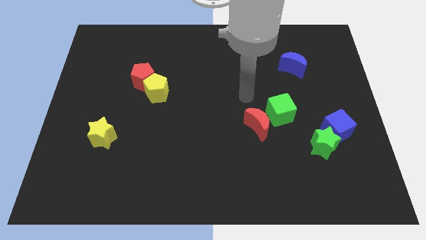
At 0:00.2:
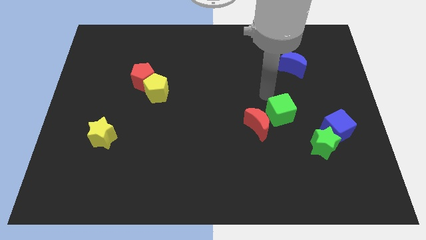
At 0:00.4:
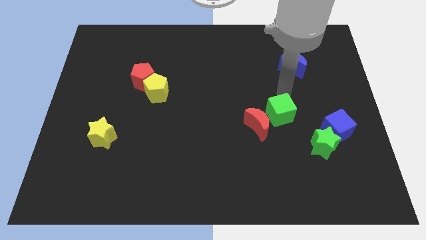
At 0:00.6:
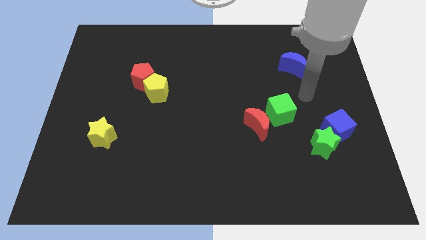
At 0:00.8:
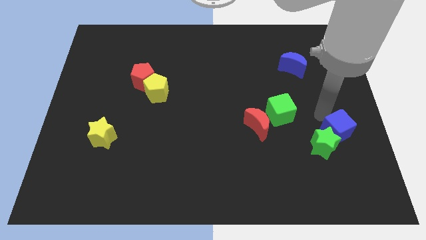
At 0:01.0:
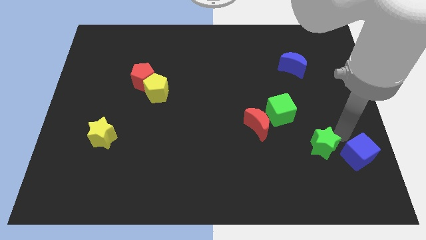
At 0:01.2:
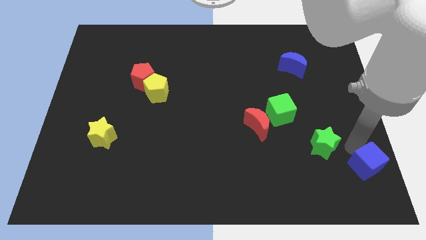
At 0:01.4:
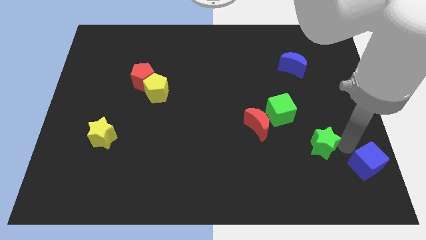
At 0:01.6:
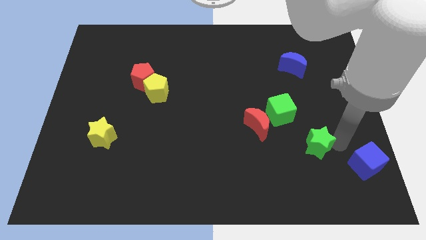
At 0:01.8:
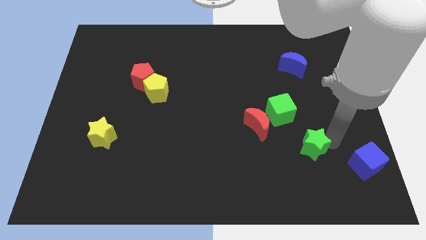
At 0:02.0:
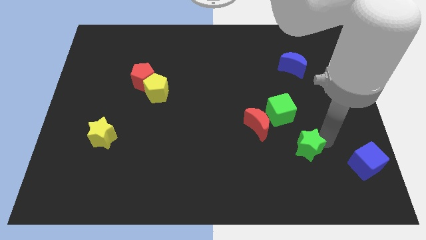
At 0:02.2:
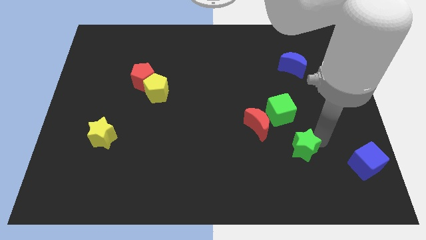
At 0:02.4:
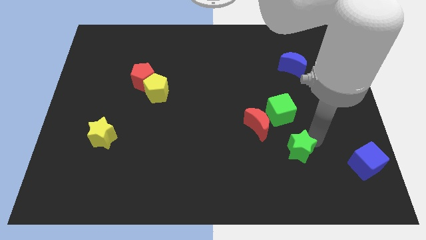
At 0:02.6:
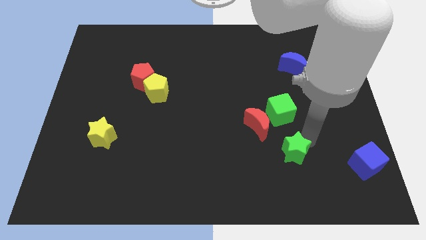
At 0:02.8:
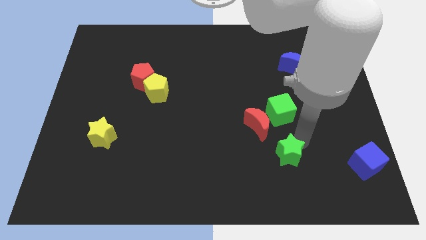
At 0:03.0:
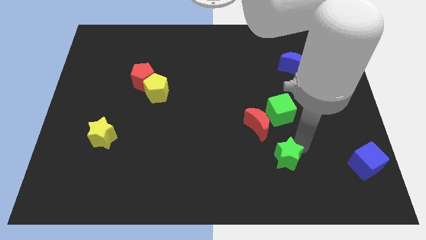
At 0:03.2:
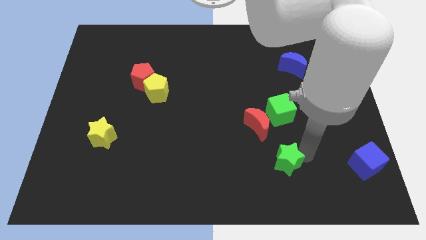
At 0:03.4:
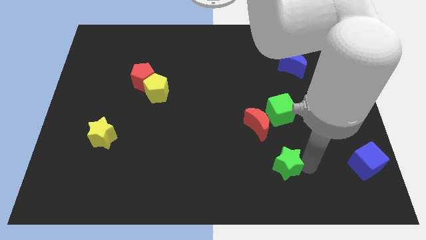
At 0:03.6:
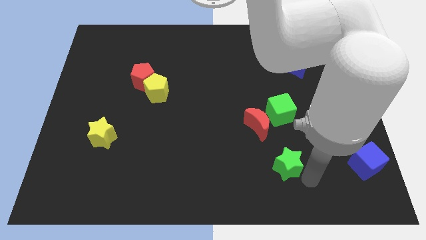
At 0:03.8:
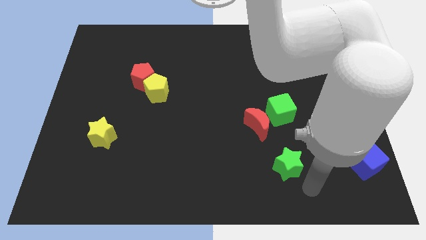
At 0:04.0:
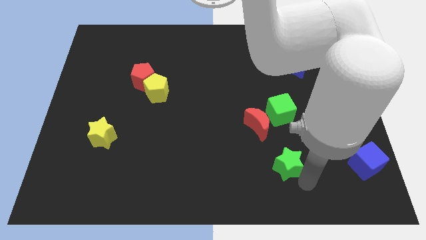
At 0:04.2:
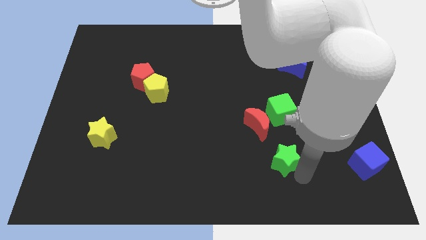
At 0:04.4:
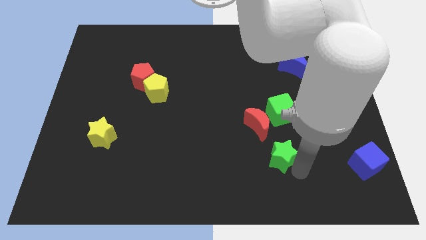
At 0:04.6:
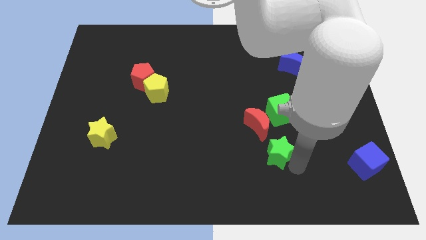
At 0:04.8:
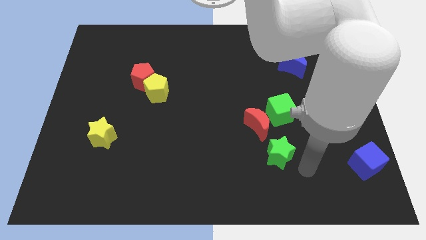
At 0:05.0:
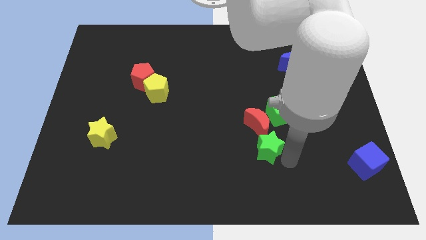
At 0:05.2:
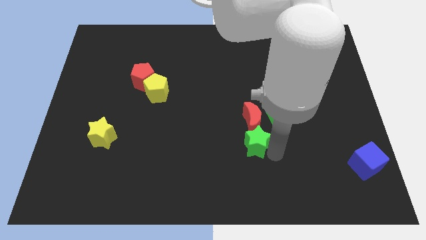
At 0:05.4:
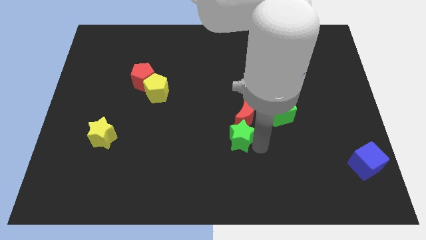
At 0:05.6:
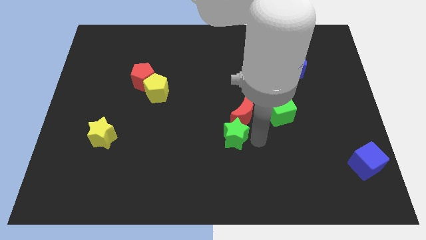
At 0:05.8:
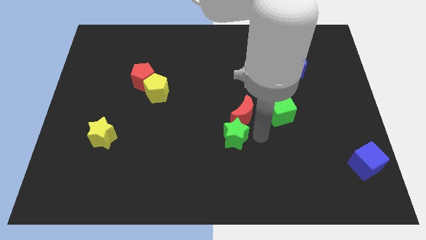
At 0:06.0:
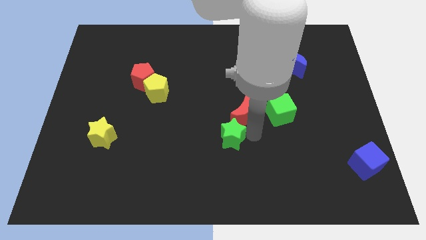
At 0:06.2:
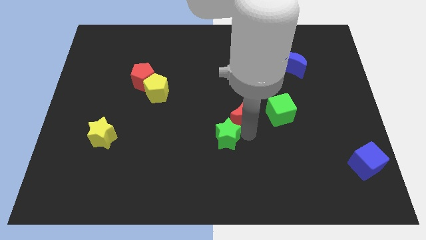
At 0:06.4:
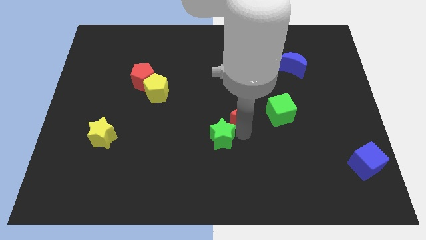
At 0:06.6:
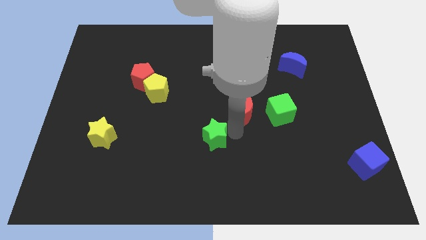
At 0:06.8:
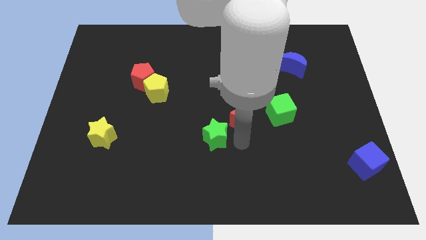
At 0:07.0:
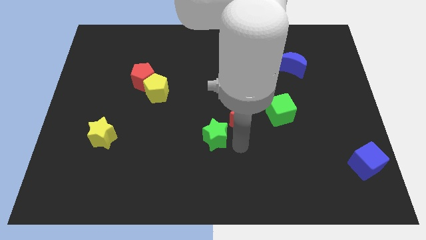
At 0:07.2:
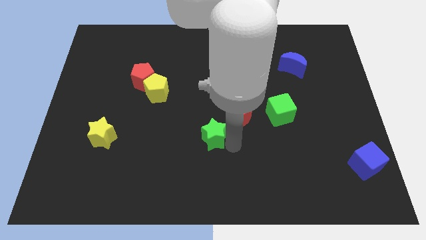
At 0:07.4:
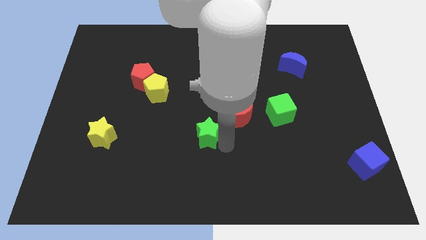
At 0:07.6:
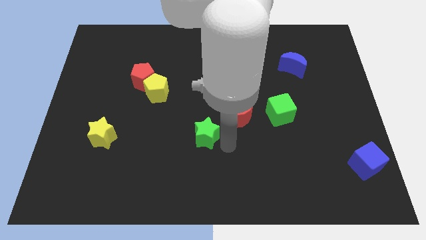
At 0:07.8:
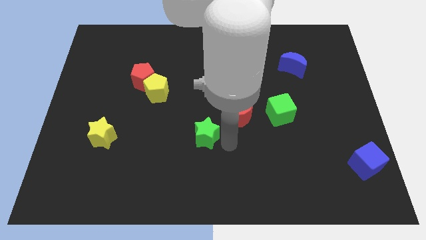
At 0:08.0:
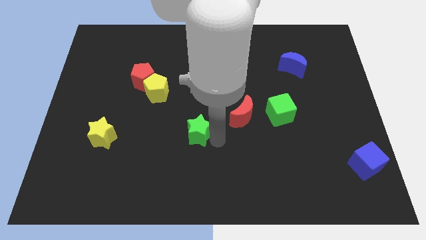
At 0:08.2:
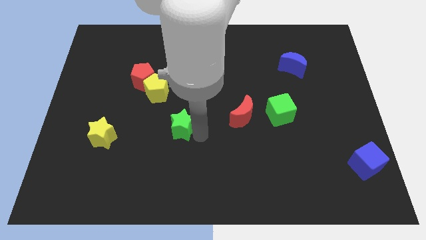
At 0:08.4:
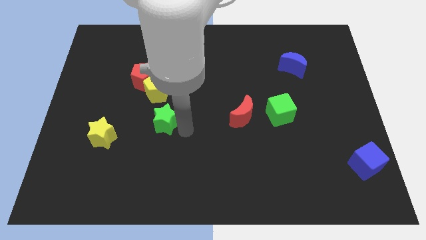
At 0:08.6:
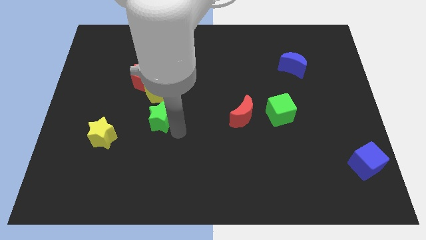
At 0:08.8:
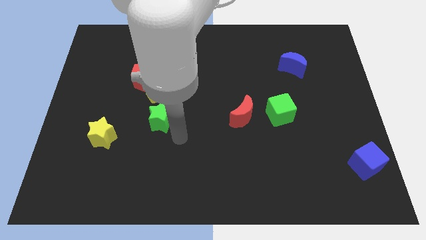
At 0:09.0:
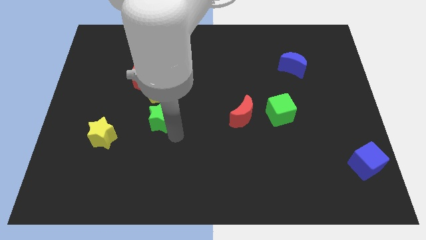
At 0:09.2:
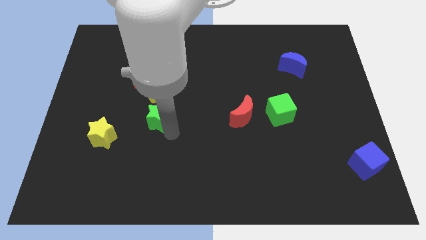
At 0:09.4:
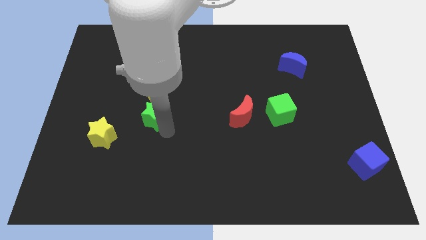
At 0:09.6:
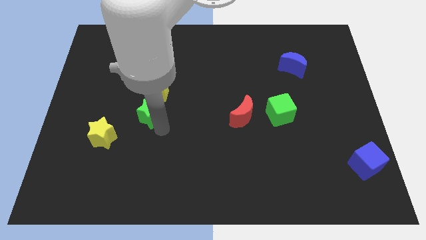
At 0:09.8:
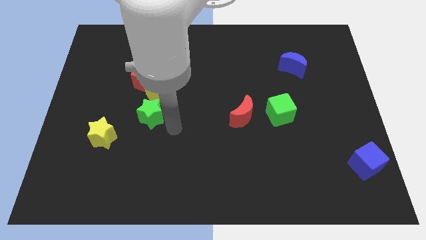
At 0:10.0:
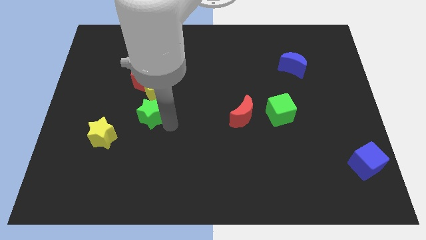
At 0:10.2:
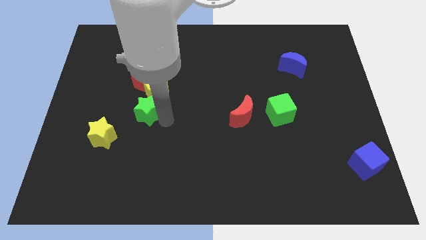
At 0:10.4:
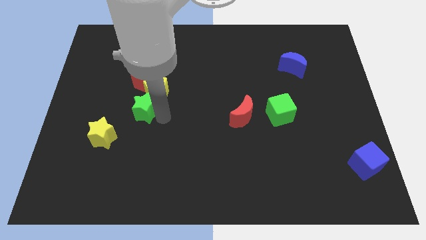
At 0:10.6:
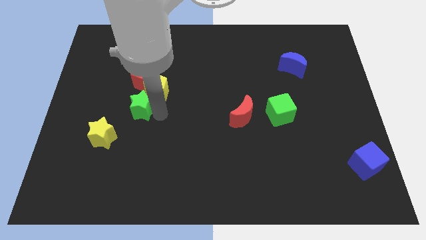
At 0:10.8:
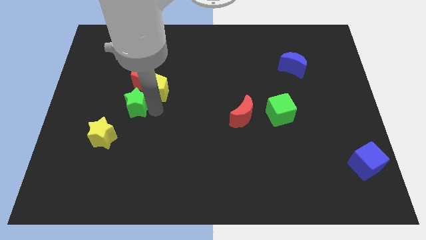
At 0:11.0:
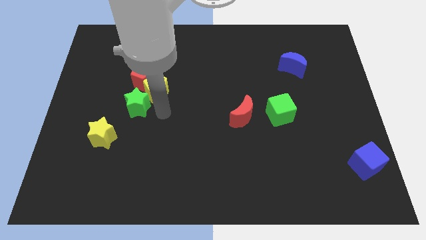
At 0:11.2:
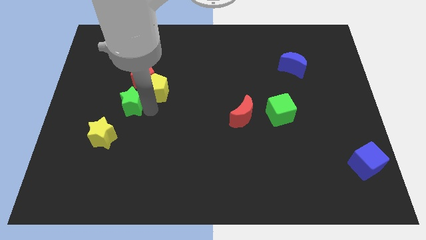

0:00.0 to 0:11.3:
move the green star to the top side of the yellow star

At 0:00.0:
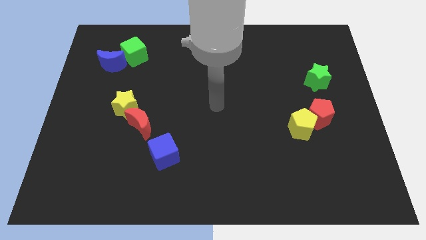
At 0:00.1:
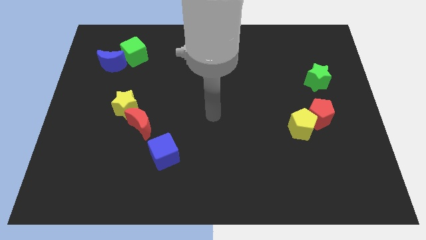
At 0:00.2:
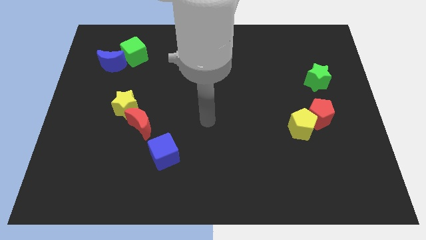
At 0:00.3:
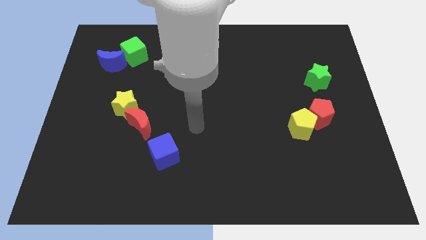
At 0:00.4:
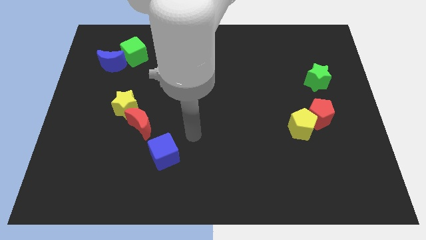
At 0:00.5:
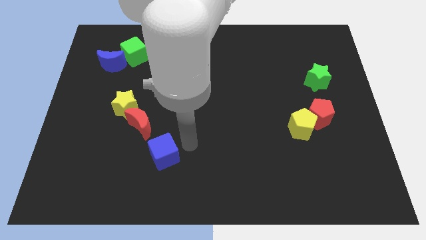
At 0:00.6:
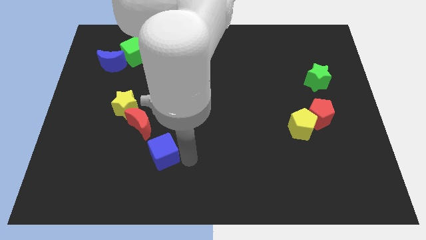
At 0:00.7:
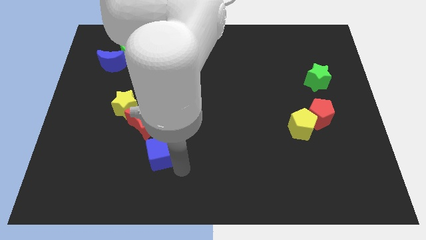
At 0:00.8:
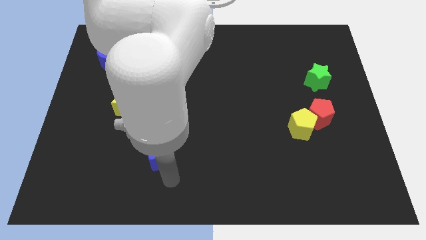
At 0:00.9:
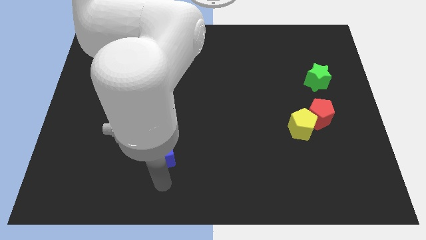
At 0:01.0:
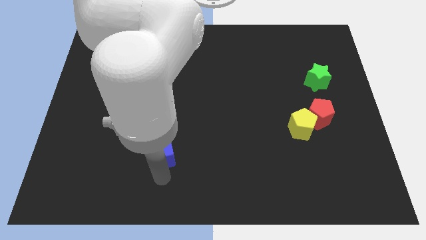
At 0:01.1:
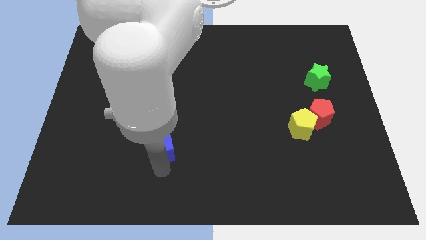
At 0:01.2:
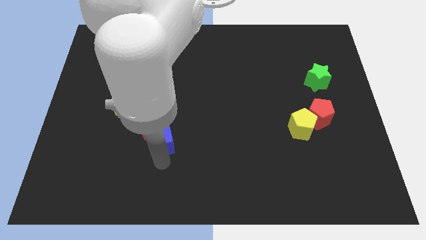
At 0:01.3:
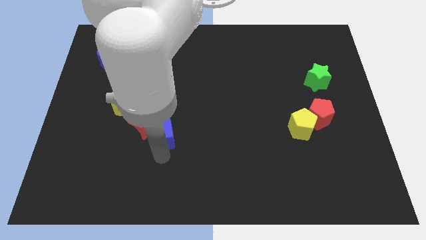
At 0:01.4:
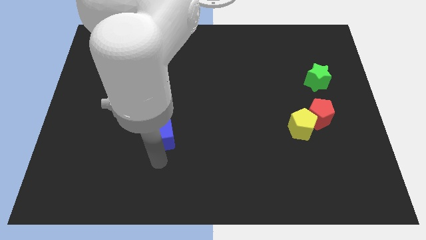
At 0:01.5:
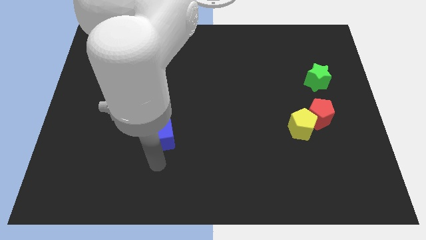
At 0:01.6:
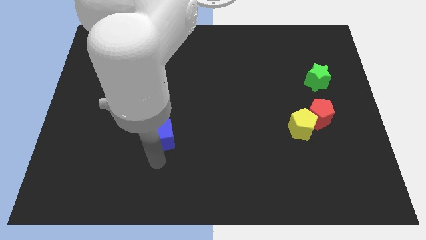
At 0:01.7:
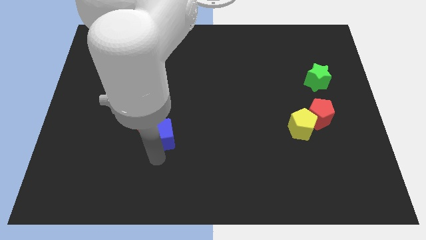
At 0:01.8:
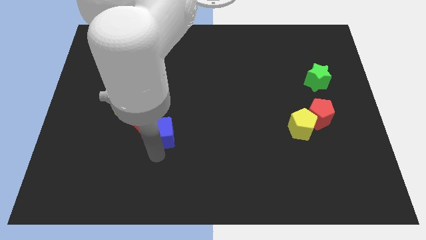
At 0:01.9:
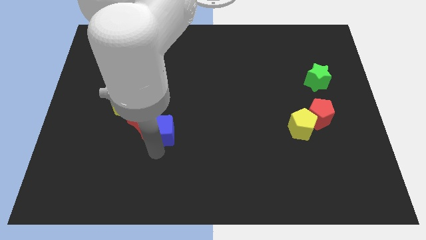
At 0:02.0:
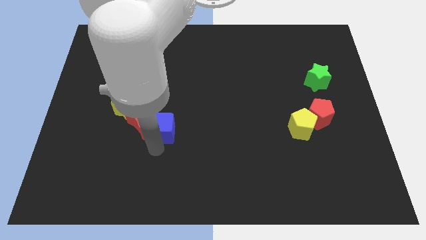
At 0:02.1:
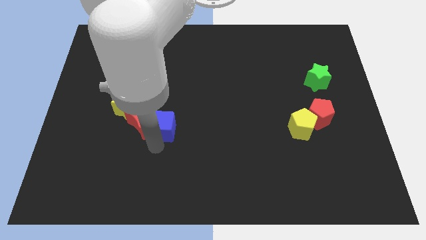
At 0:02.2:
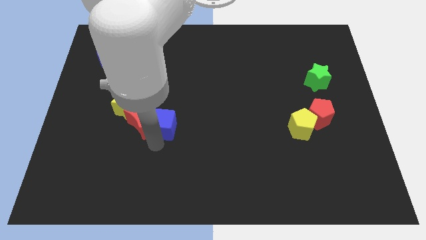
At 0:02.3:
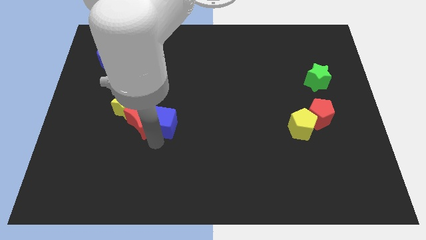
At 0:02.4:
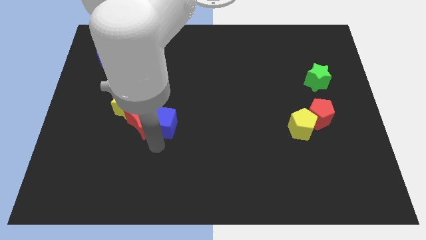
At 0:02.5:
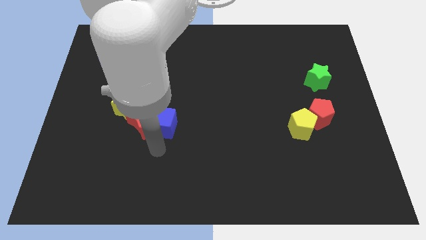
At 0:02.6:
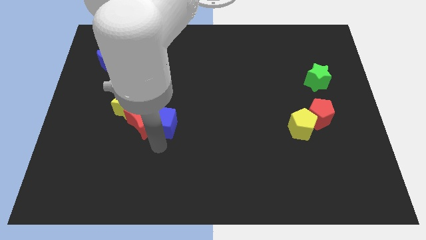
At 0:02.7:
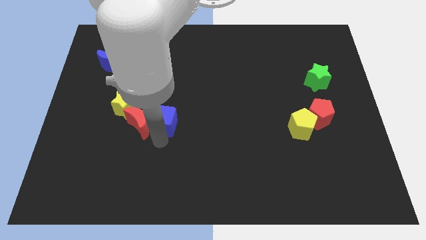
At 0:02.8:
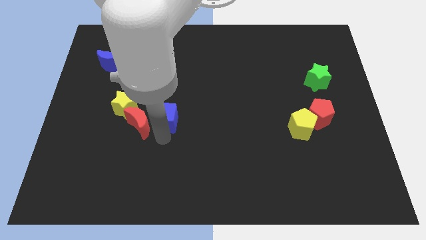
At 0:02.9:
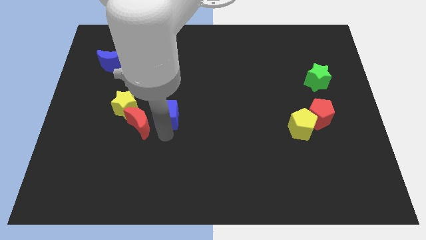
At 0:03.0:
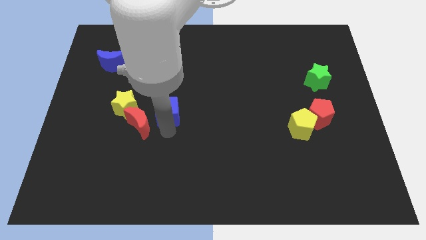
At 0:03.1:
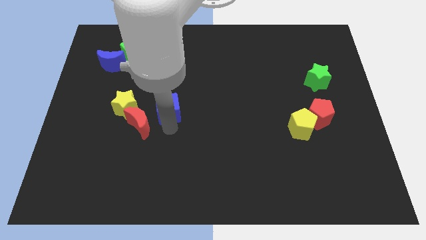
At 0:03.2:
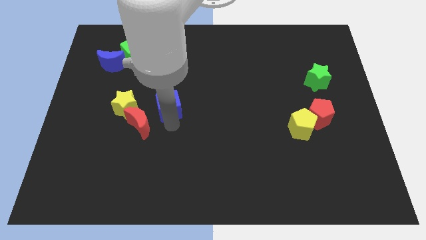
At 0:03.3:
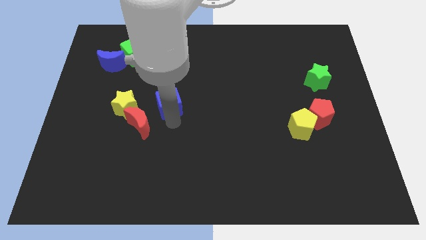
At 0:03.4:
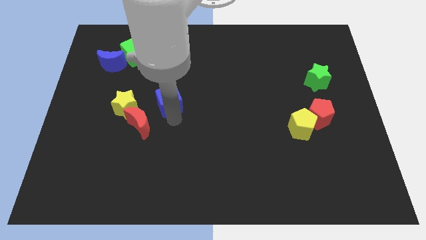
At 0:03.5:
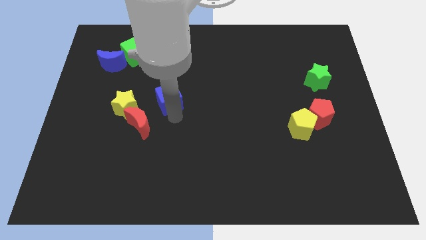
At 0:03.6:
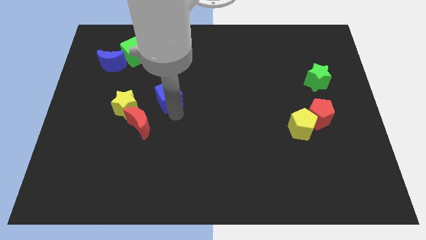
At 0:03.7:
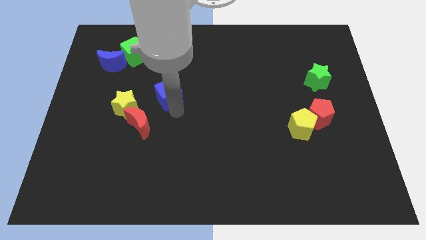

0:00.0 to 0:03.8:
move the blue cube to the top right side of the yellow star
